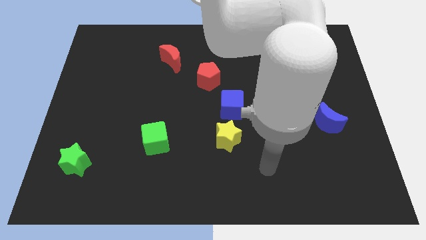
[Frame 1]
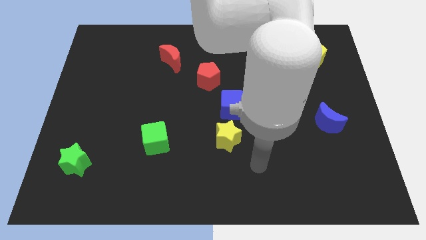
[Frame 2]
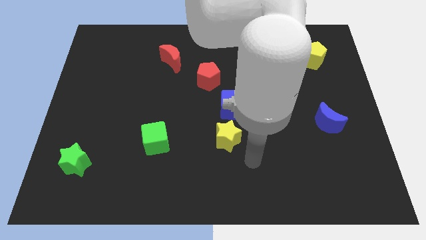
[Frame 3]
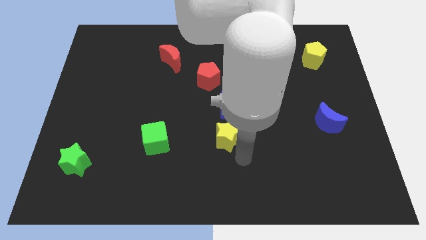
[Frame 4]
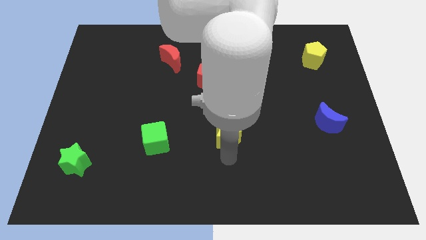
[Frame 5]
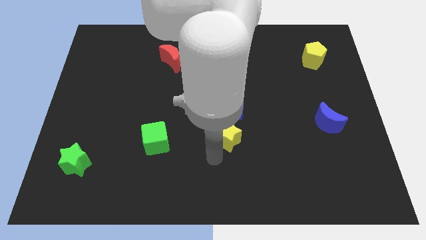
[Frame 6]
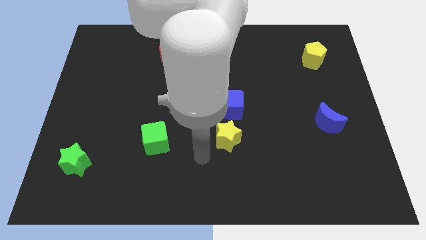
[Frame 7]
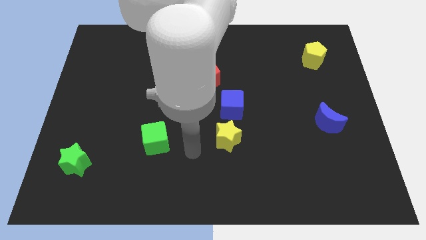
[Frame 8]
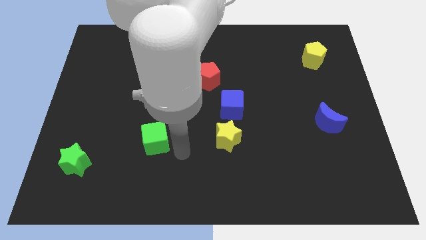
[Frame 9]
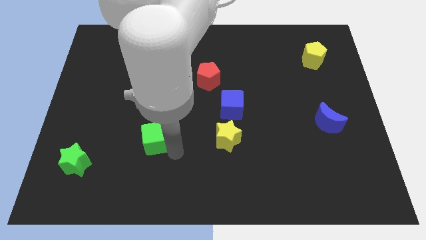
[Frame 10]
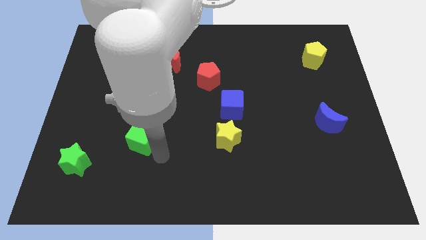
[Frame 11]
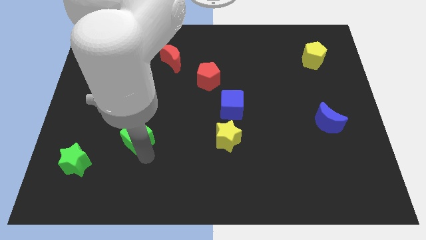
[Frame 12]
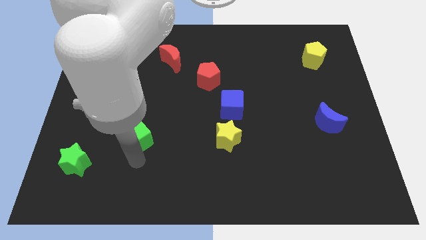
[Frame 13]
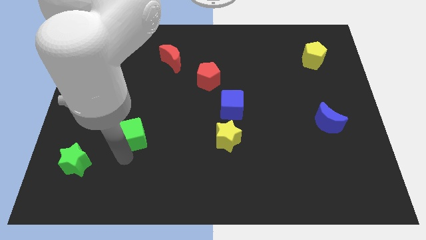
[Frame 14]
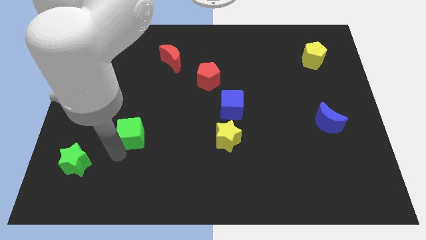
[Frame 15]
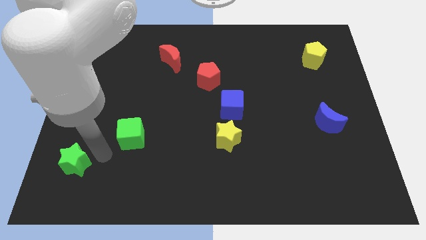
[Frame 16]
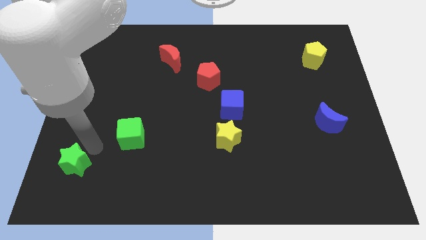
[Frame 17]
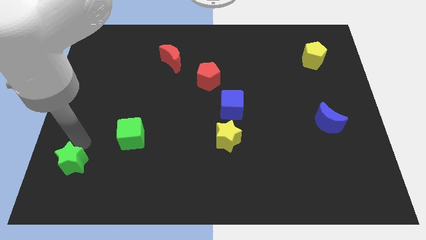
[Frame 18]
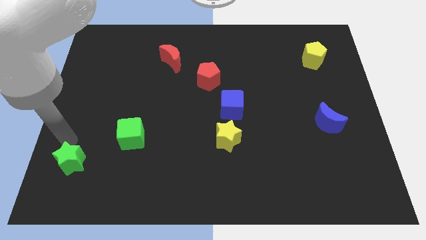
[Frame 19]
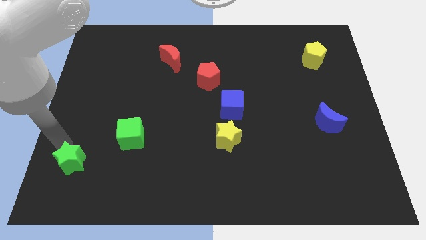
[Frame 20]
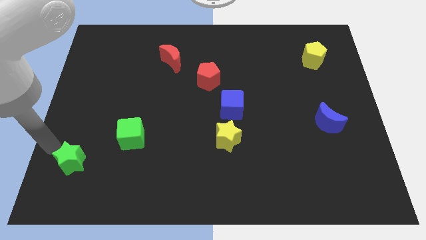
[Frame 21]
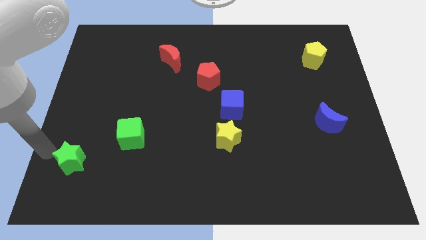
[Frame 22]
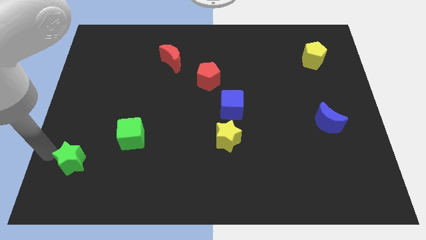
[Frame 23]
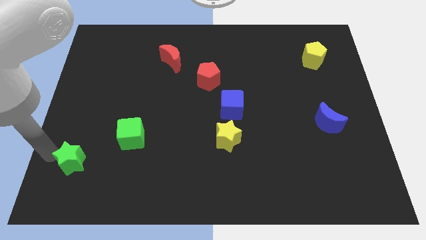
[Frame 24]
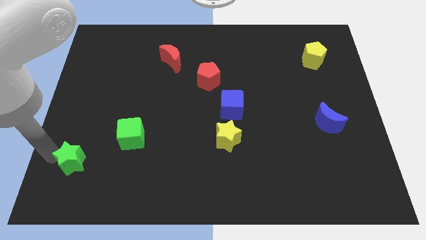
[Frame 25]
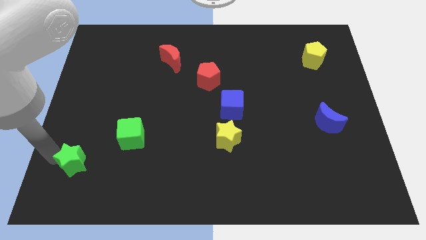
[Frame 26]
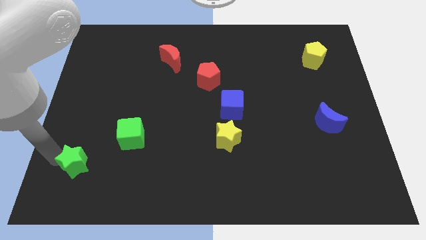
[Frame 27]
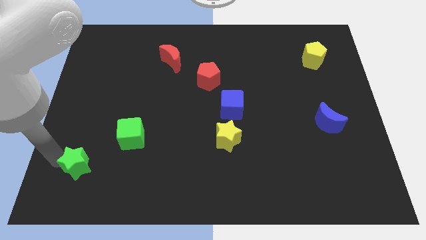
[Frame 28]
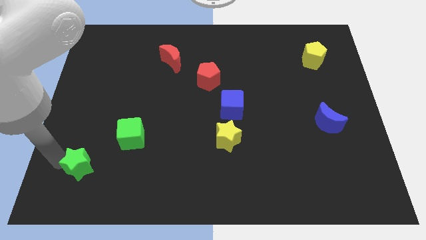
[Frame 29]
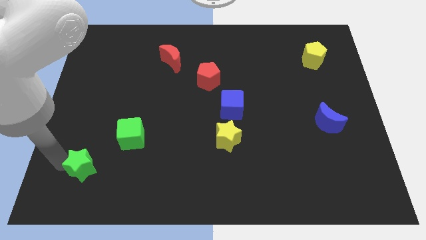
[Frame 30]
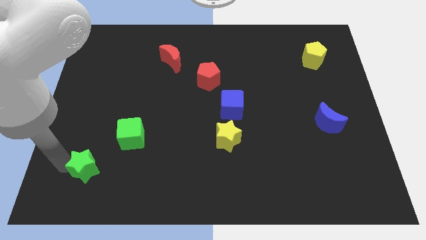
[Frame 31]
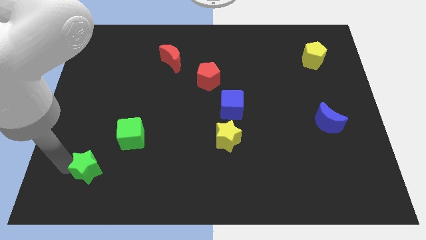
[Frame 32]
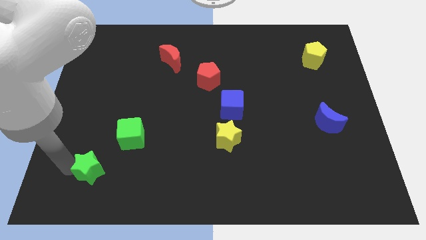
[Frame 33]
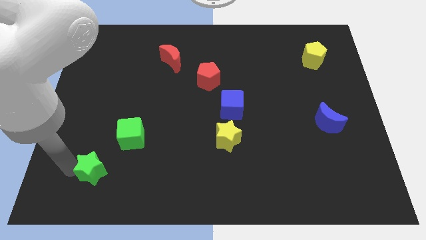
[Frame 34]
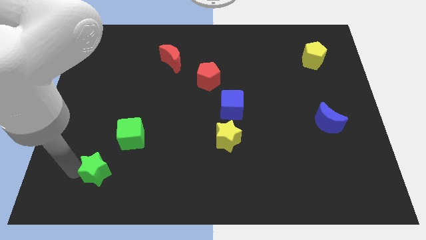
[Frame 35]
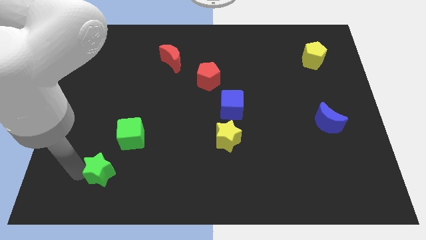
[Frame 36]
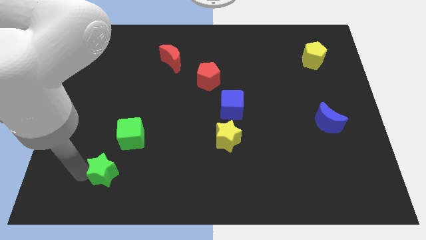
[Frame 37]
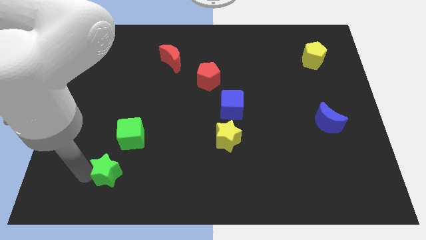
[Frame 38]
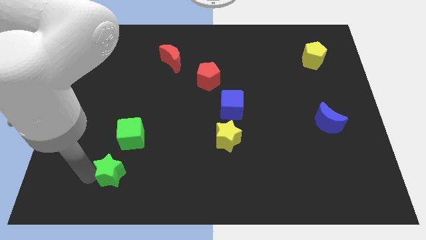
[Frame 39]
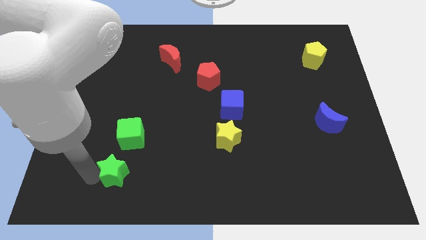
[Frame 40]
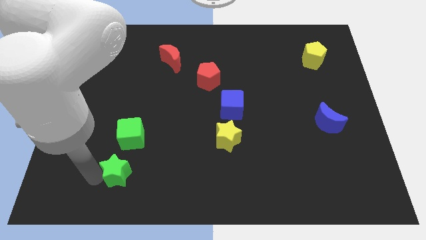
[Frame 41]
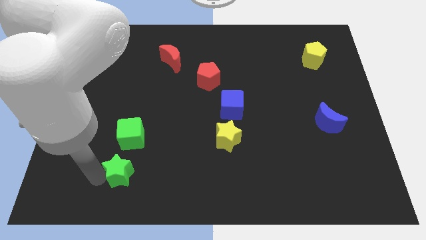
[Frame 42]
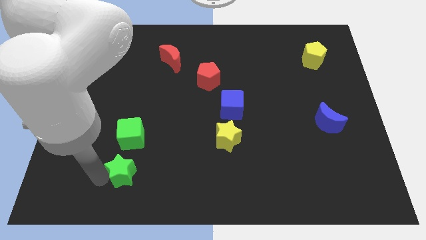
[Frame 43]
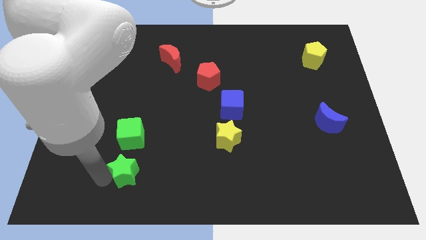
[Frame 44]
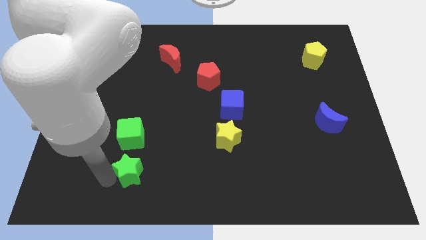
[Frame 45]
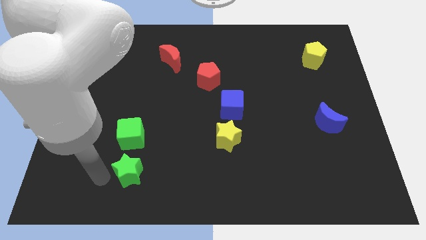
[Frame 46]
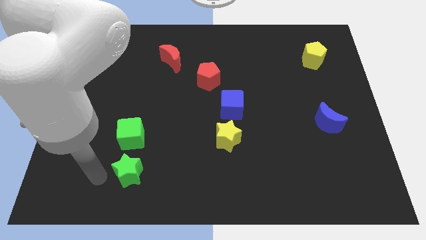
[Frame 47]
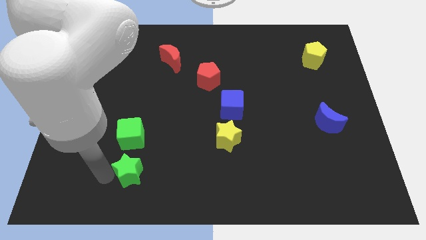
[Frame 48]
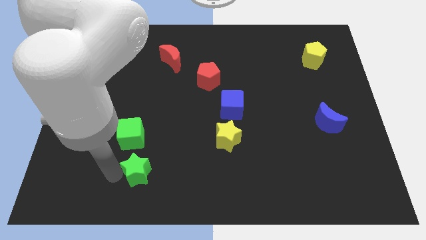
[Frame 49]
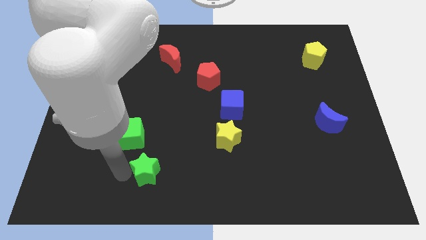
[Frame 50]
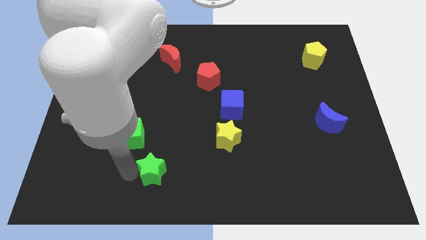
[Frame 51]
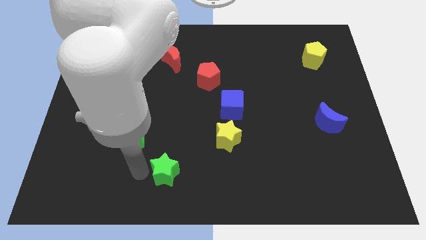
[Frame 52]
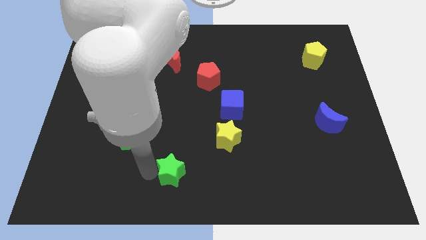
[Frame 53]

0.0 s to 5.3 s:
slide the green star to the right

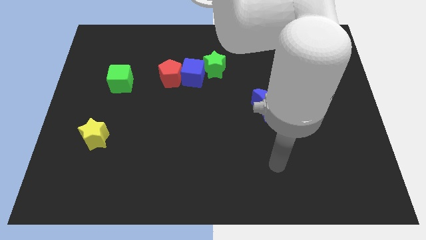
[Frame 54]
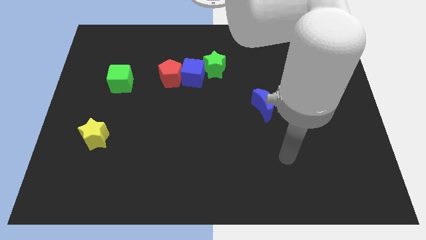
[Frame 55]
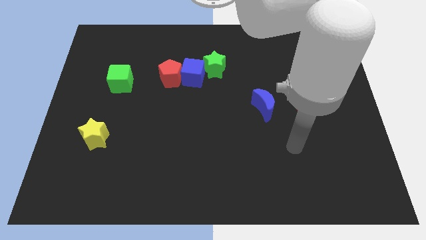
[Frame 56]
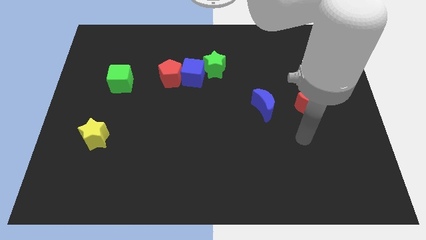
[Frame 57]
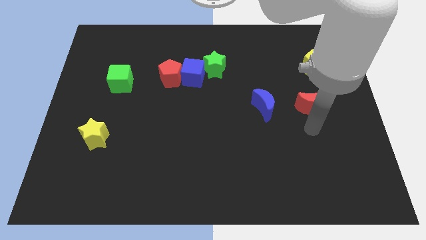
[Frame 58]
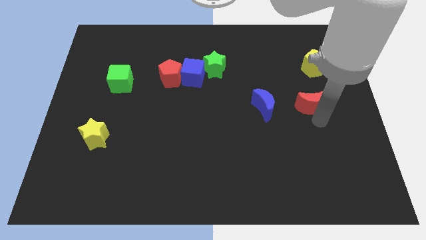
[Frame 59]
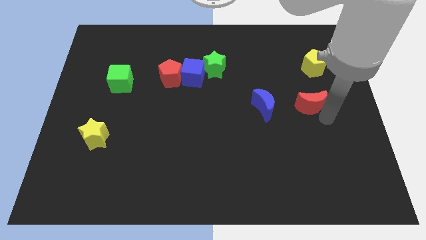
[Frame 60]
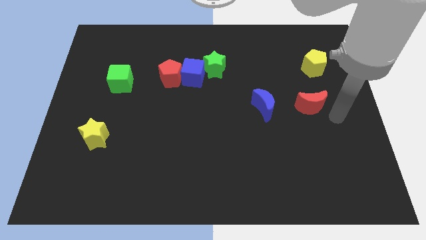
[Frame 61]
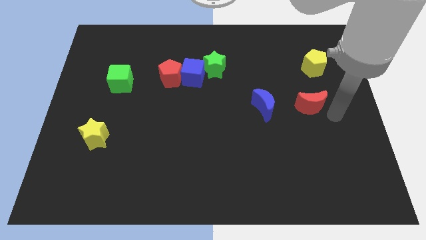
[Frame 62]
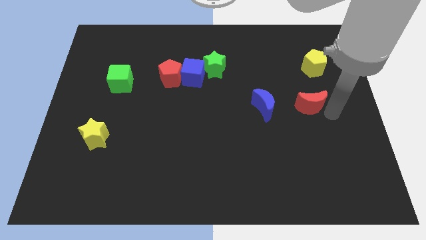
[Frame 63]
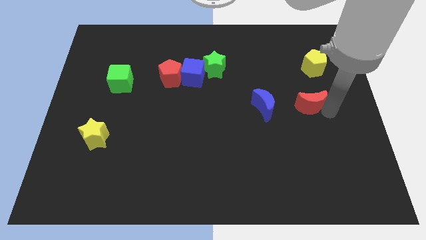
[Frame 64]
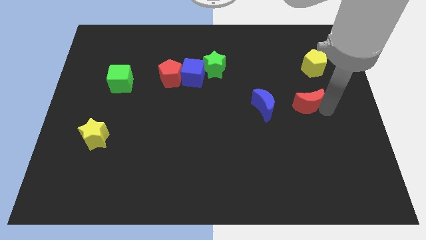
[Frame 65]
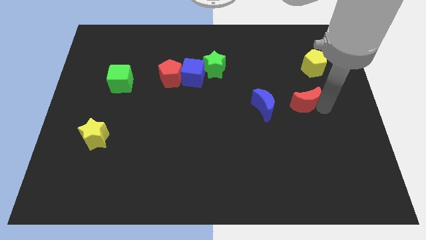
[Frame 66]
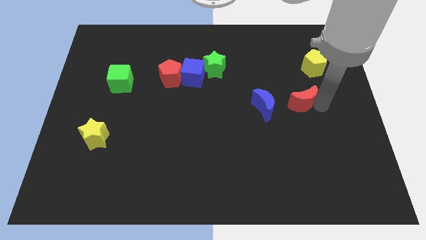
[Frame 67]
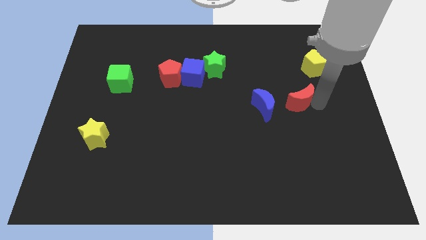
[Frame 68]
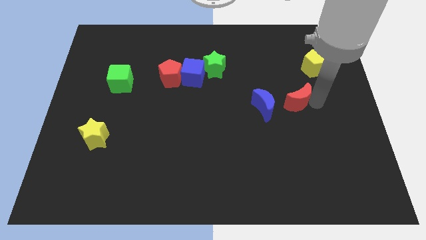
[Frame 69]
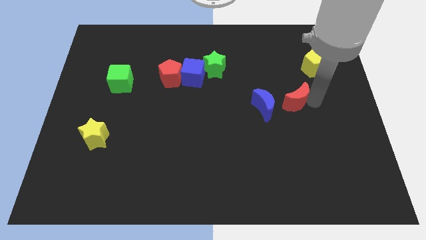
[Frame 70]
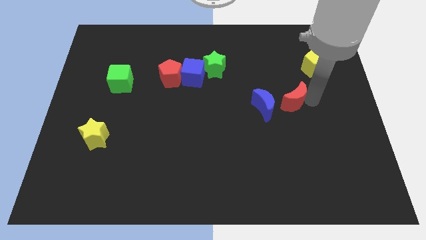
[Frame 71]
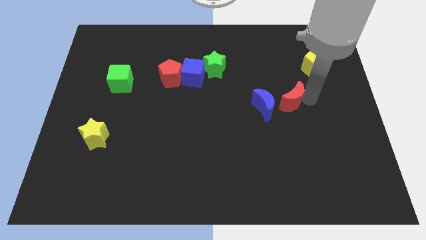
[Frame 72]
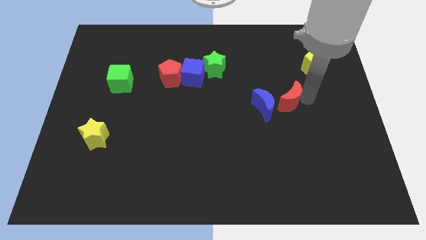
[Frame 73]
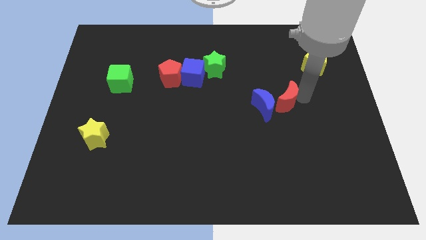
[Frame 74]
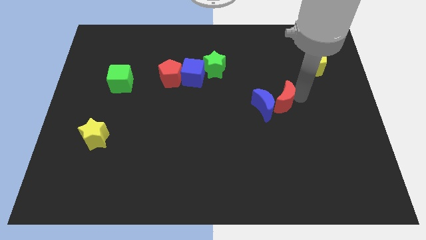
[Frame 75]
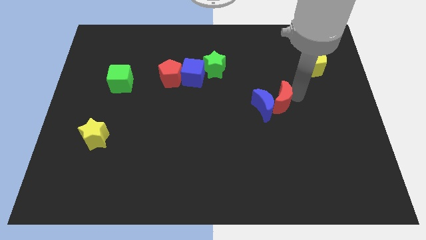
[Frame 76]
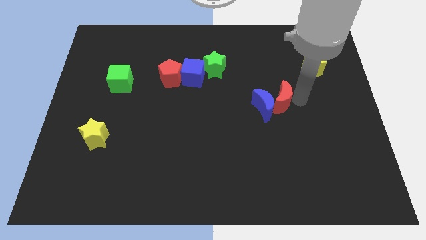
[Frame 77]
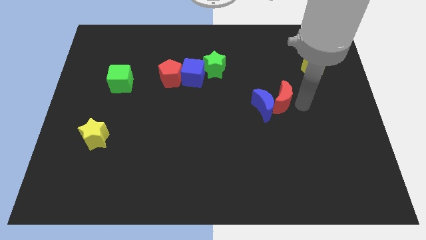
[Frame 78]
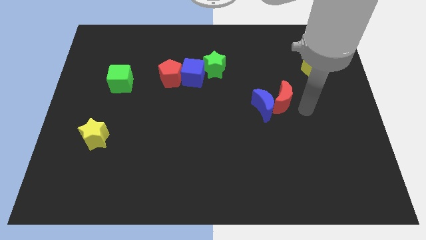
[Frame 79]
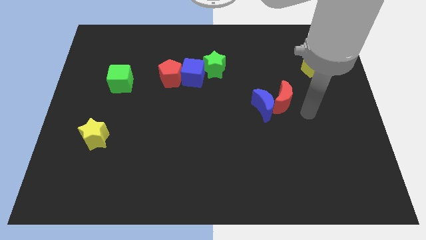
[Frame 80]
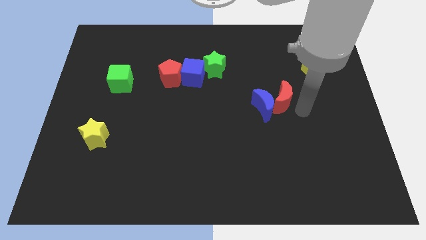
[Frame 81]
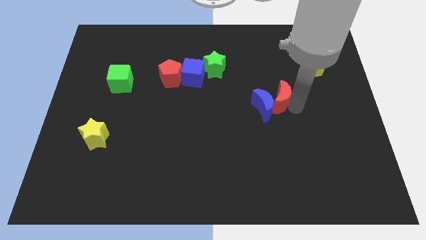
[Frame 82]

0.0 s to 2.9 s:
slightly move the red moon to the left

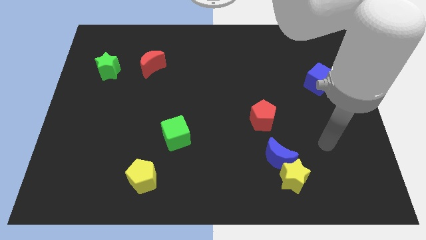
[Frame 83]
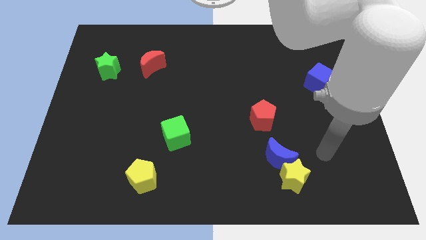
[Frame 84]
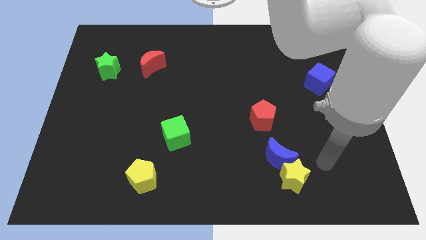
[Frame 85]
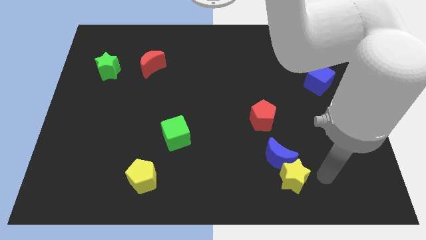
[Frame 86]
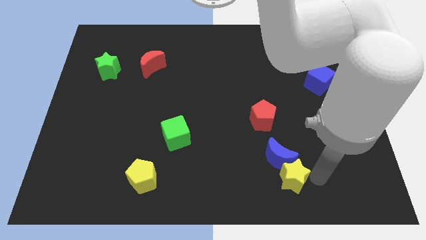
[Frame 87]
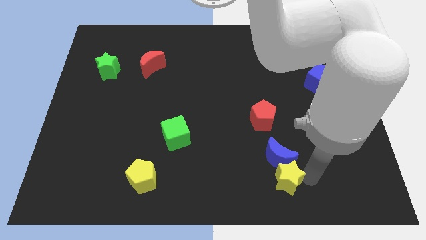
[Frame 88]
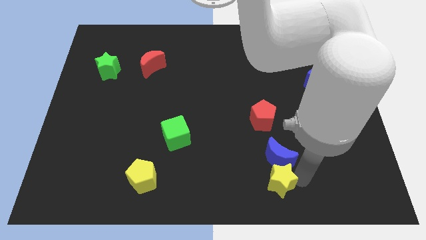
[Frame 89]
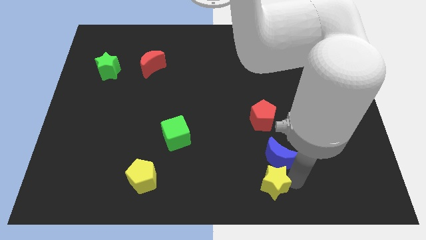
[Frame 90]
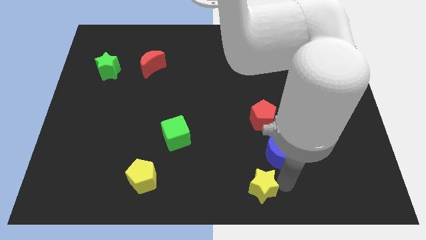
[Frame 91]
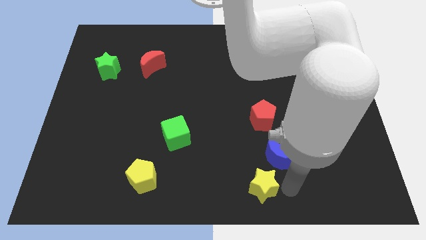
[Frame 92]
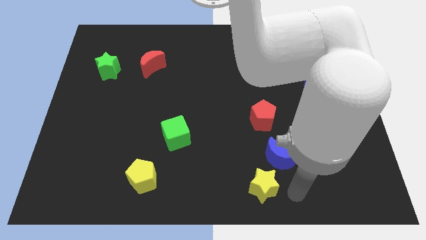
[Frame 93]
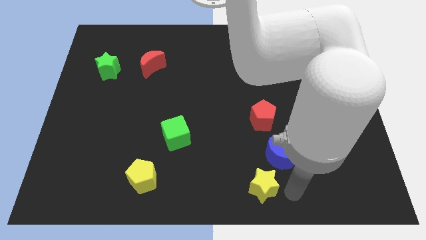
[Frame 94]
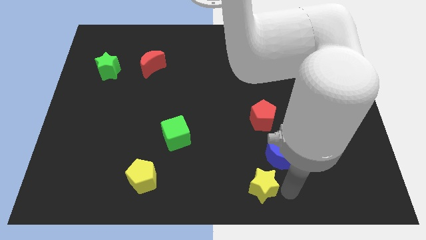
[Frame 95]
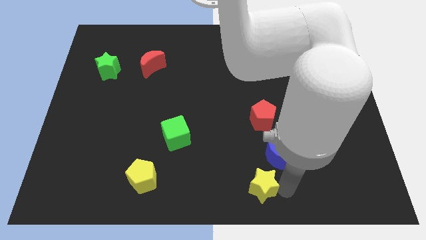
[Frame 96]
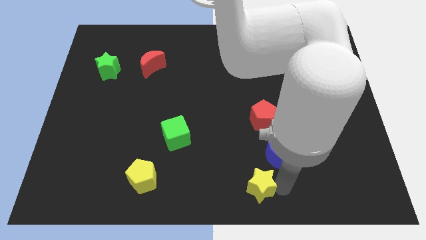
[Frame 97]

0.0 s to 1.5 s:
push the yellow star slightly to the left
